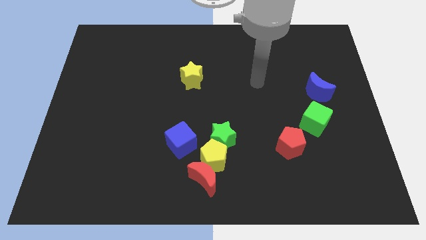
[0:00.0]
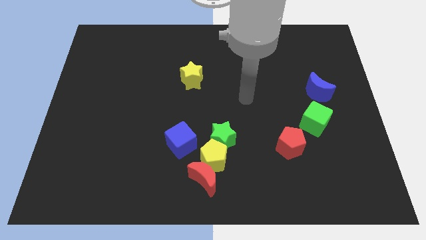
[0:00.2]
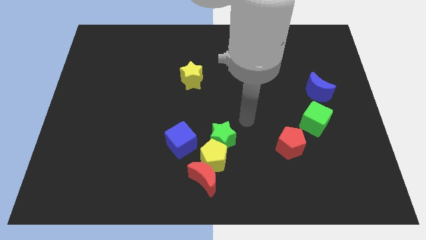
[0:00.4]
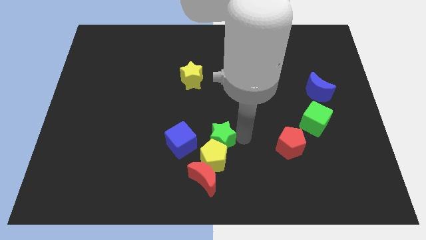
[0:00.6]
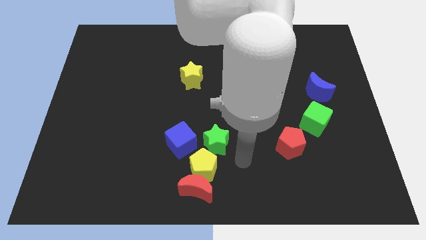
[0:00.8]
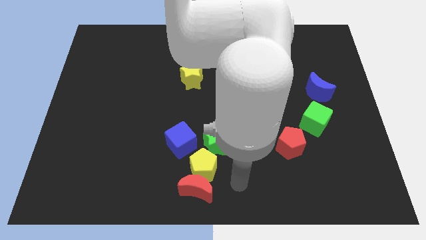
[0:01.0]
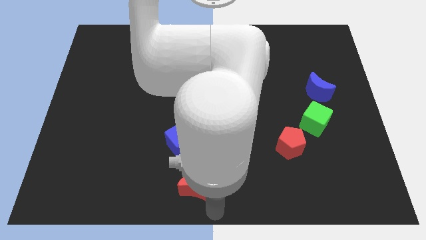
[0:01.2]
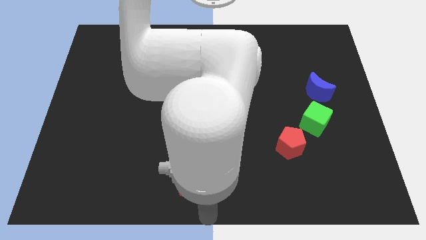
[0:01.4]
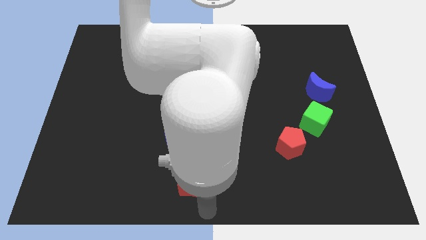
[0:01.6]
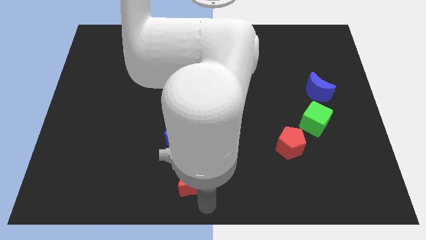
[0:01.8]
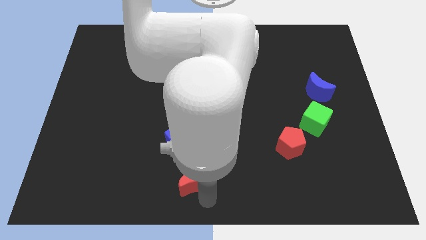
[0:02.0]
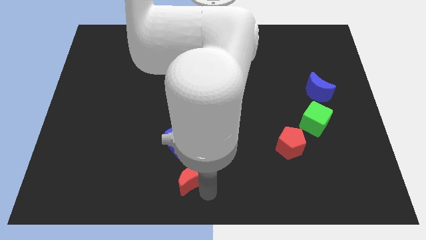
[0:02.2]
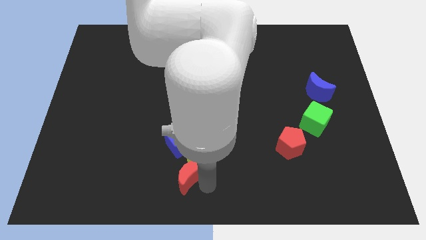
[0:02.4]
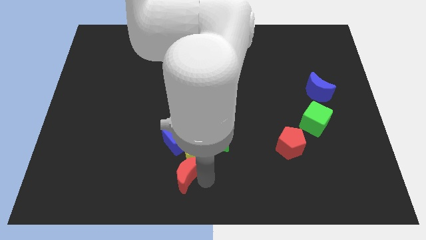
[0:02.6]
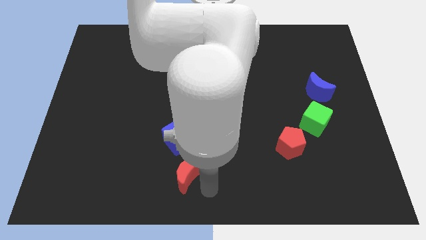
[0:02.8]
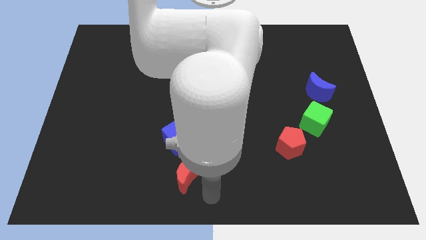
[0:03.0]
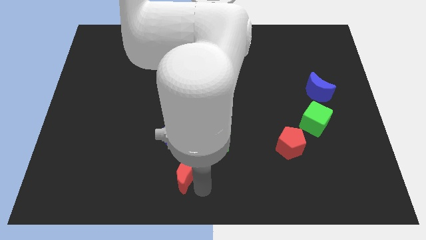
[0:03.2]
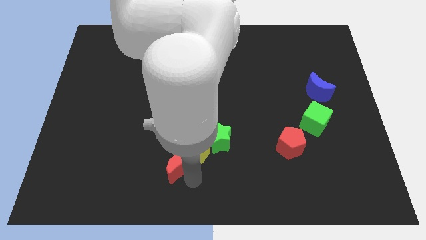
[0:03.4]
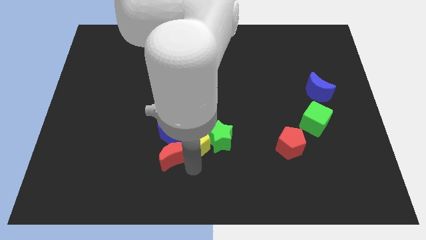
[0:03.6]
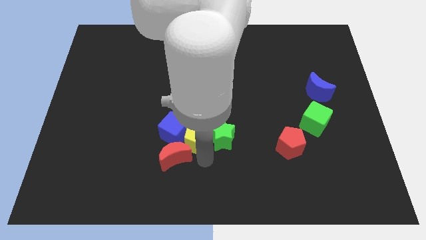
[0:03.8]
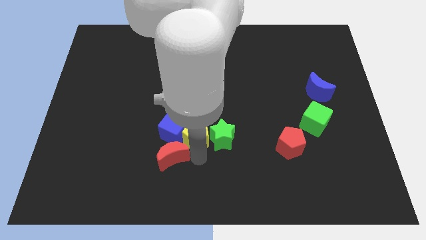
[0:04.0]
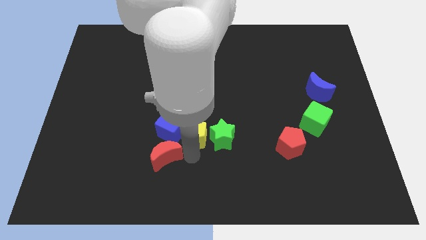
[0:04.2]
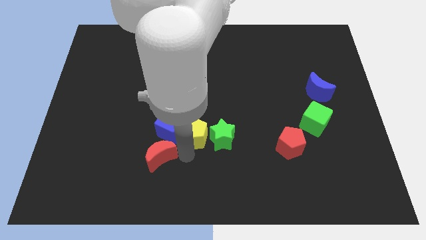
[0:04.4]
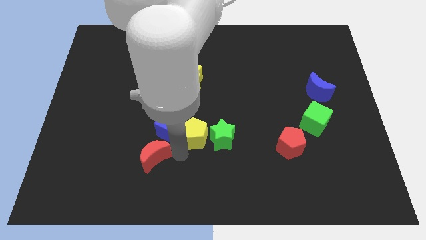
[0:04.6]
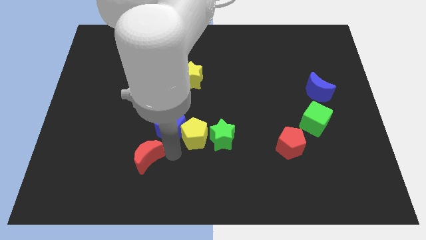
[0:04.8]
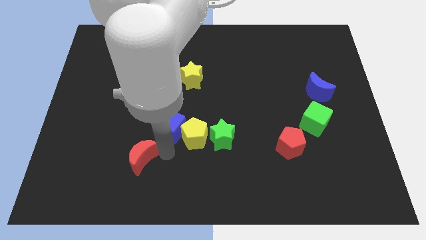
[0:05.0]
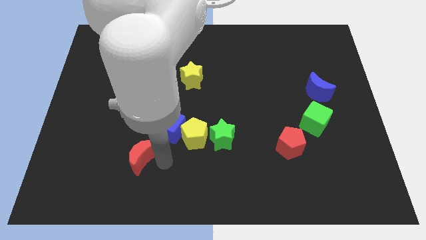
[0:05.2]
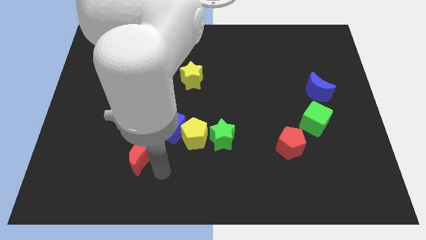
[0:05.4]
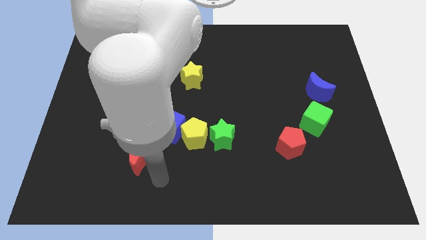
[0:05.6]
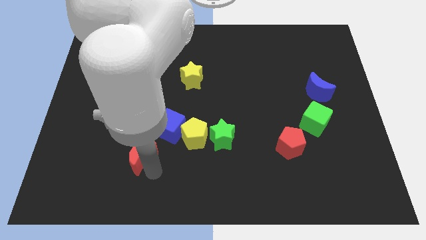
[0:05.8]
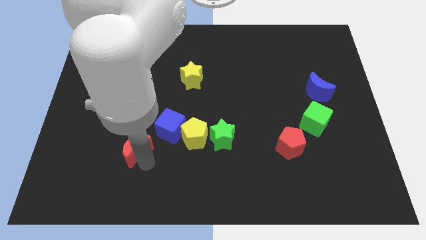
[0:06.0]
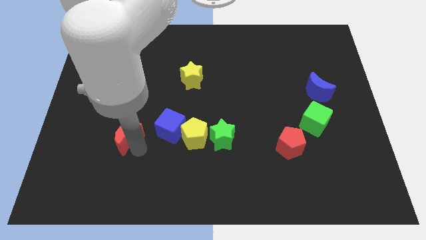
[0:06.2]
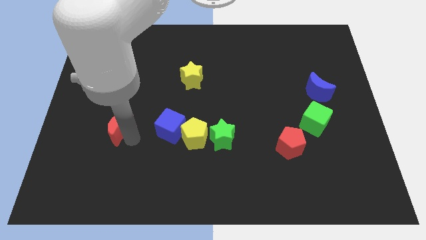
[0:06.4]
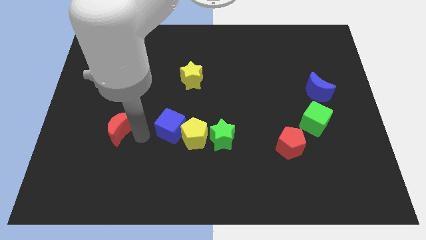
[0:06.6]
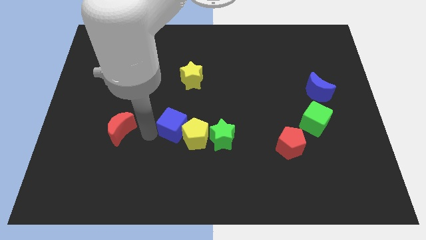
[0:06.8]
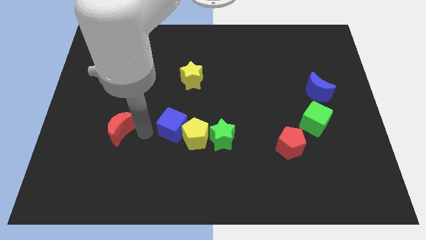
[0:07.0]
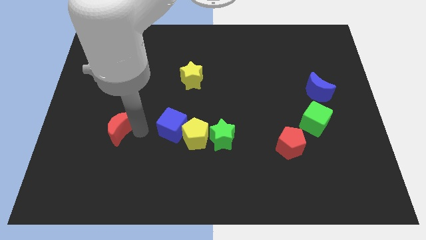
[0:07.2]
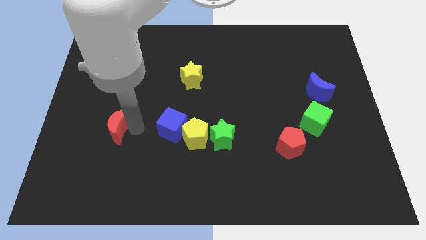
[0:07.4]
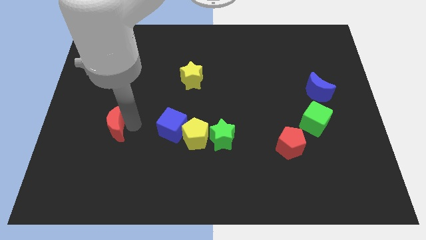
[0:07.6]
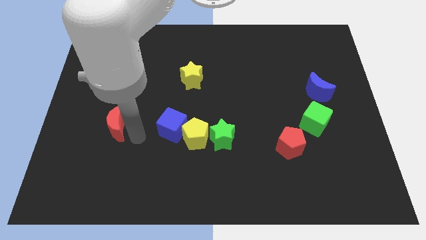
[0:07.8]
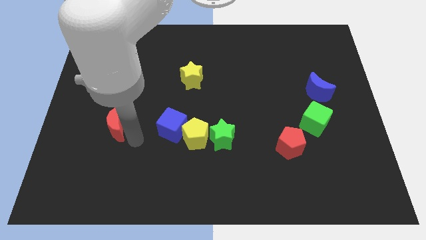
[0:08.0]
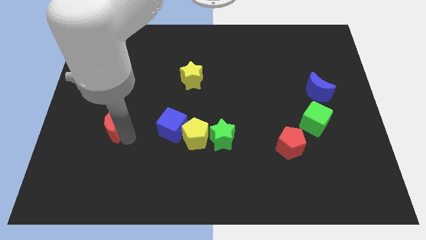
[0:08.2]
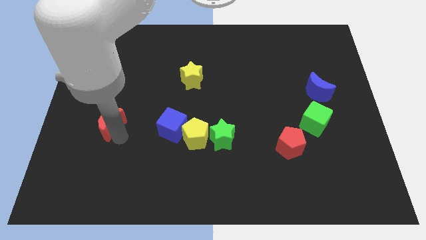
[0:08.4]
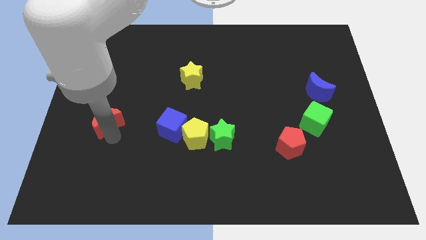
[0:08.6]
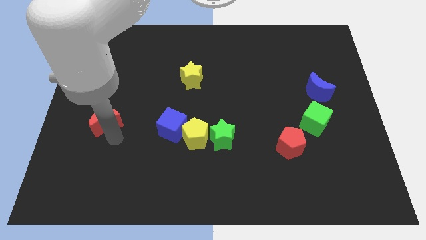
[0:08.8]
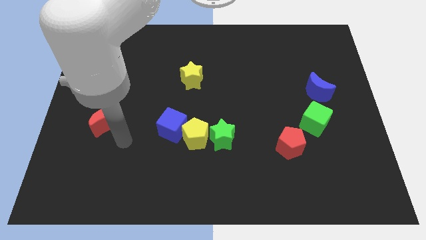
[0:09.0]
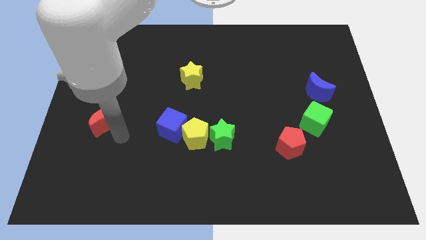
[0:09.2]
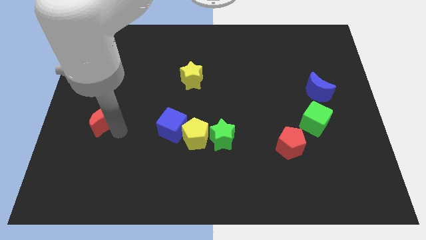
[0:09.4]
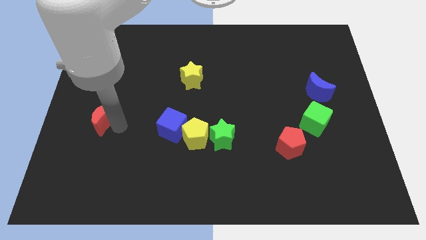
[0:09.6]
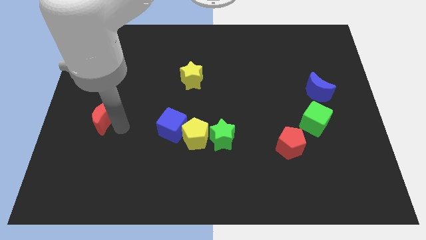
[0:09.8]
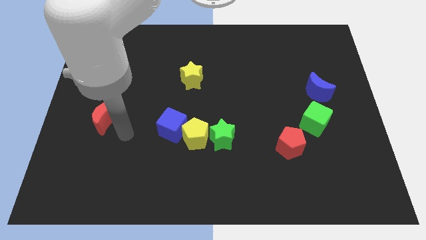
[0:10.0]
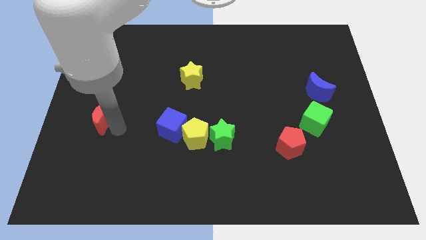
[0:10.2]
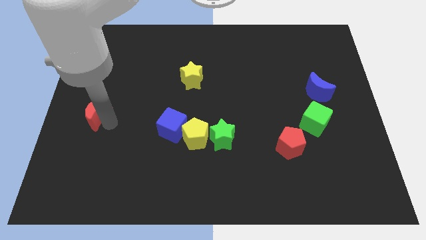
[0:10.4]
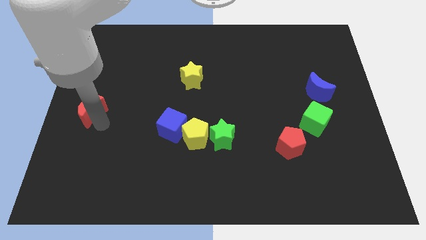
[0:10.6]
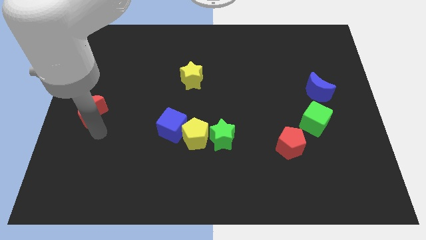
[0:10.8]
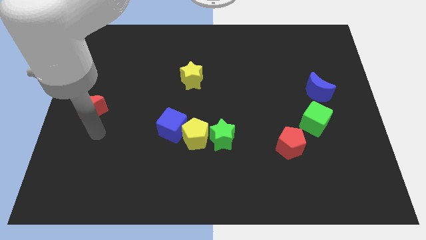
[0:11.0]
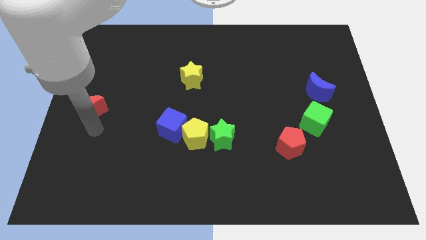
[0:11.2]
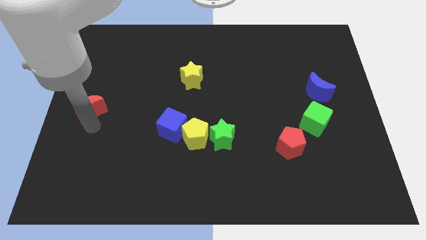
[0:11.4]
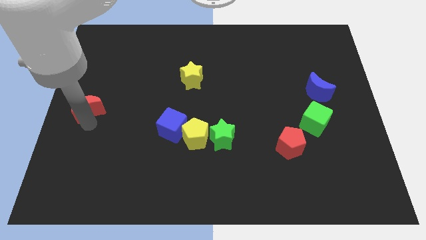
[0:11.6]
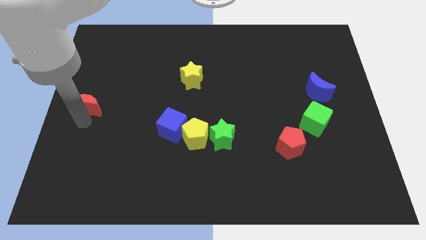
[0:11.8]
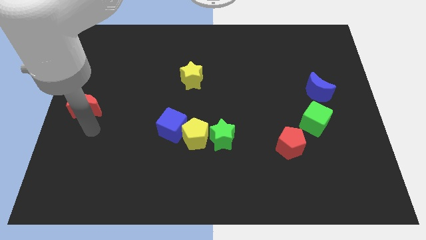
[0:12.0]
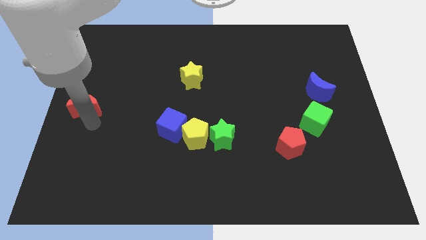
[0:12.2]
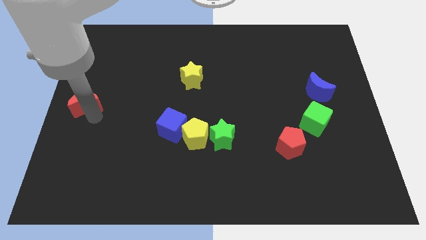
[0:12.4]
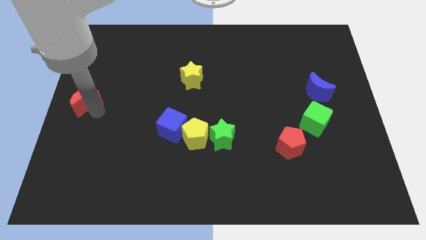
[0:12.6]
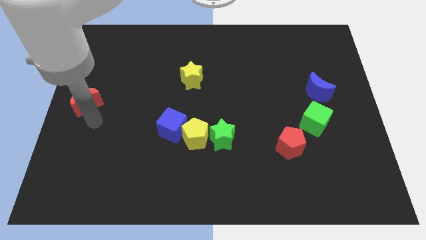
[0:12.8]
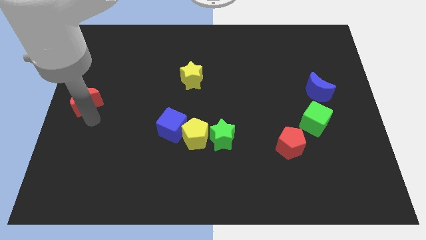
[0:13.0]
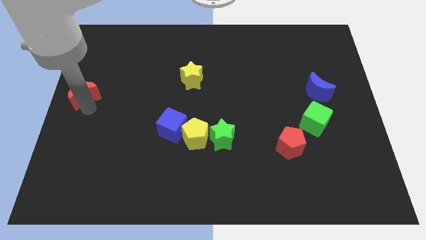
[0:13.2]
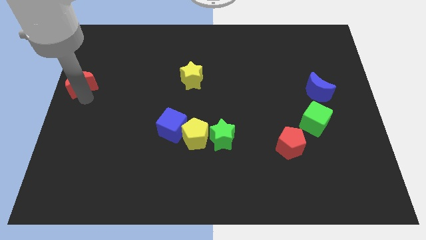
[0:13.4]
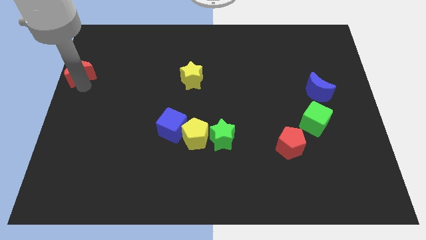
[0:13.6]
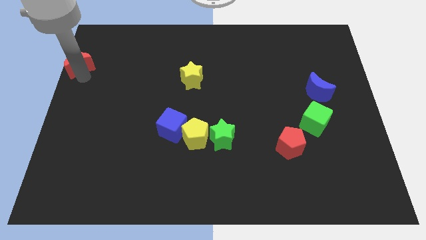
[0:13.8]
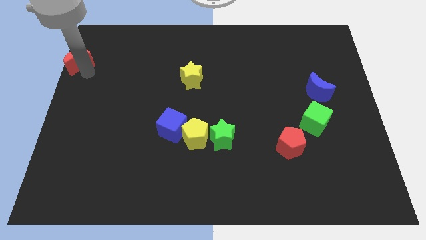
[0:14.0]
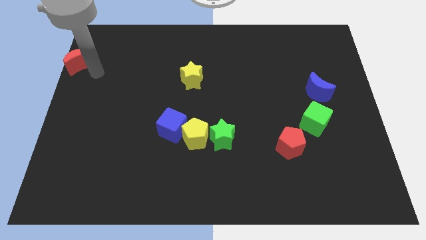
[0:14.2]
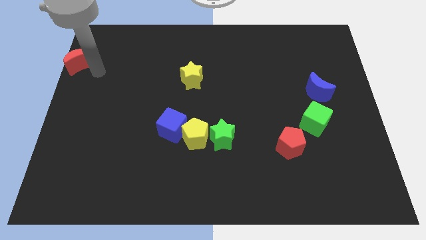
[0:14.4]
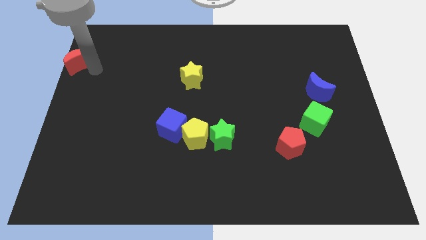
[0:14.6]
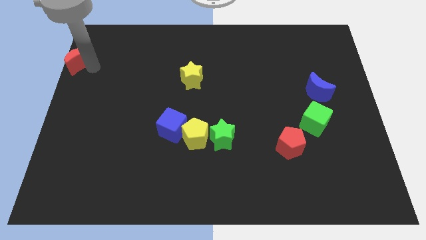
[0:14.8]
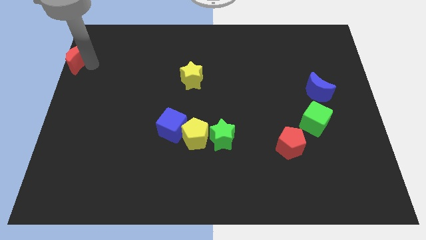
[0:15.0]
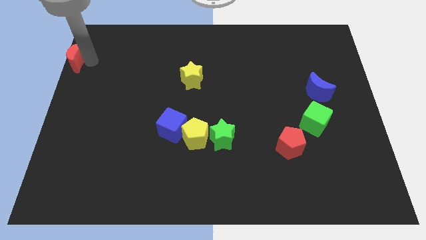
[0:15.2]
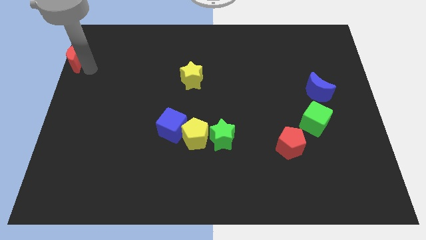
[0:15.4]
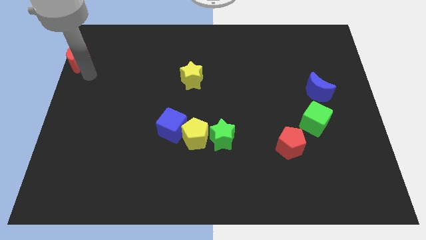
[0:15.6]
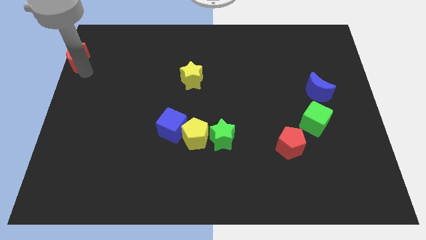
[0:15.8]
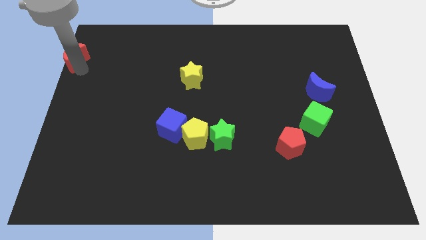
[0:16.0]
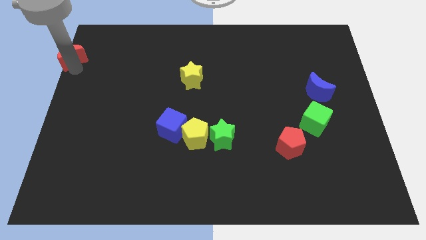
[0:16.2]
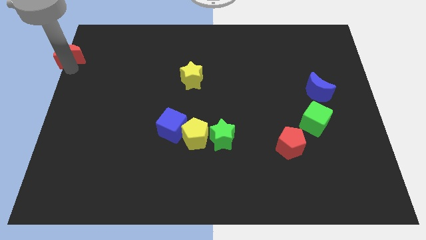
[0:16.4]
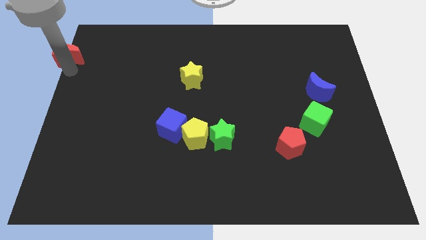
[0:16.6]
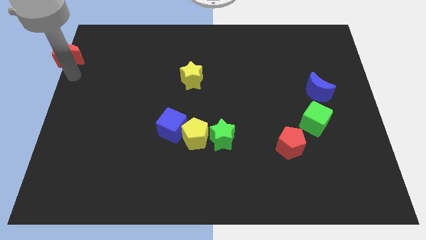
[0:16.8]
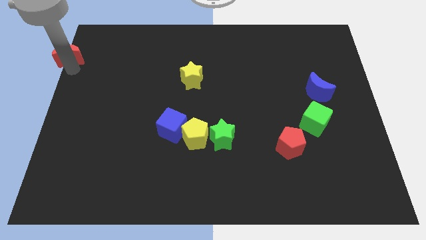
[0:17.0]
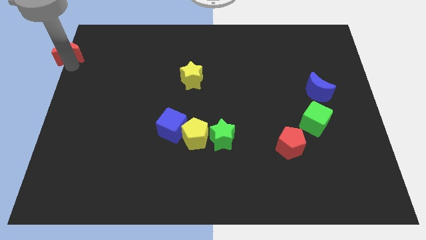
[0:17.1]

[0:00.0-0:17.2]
put the red moon to the top left
